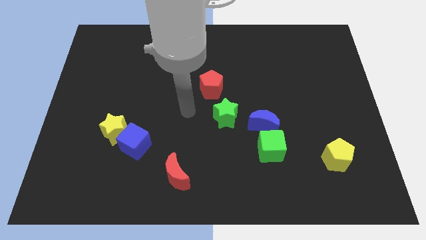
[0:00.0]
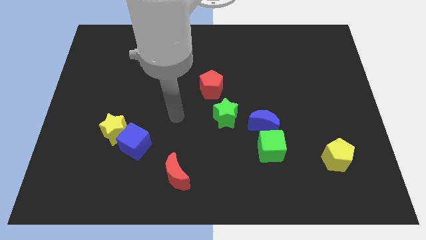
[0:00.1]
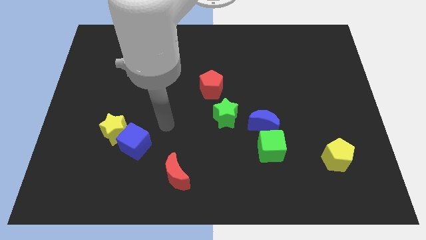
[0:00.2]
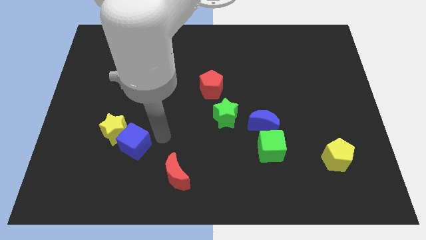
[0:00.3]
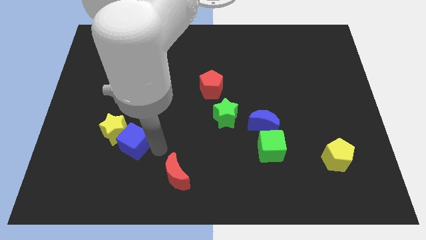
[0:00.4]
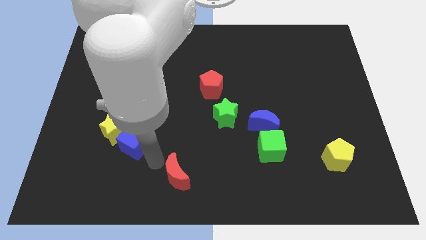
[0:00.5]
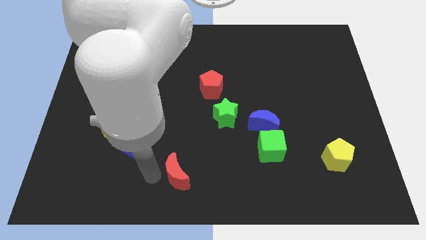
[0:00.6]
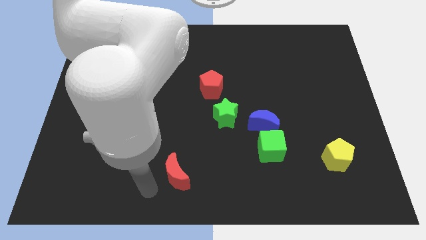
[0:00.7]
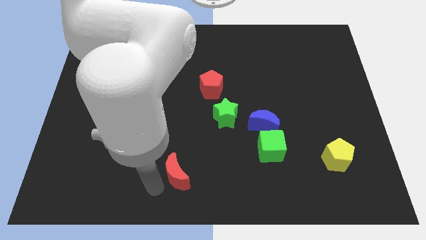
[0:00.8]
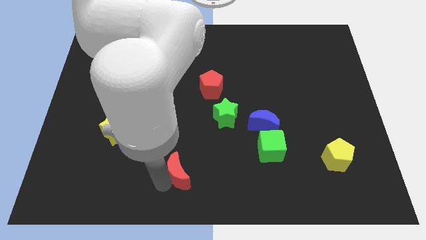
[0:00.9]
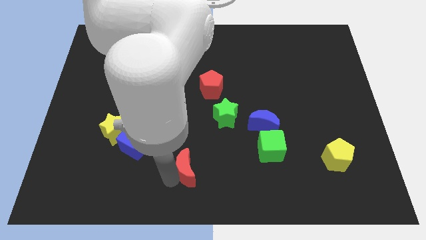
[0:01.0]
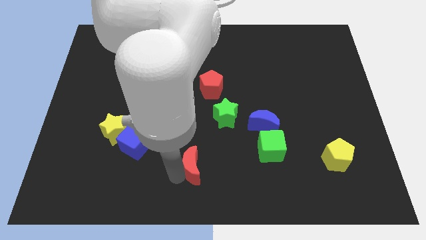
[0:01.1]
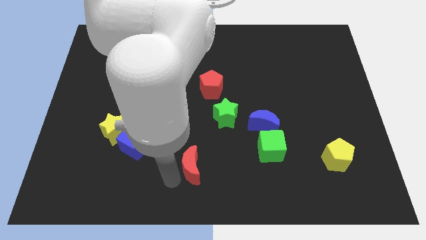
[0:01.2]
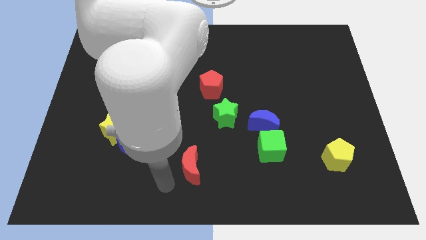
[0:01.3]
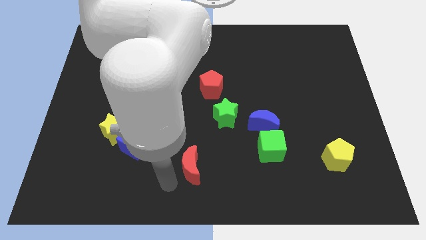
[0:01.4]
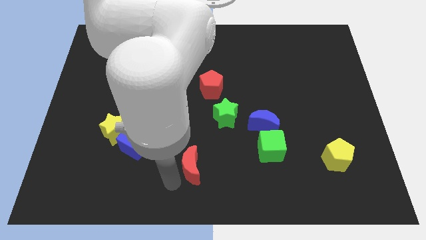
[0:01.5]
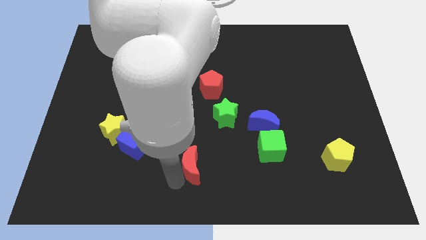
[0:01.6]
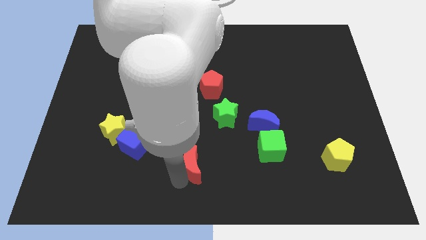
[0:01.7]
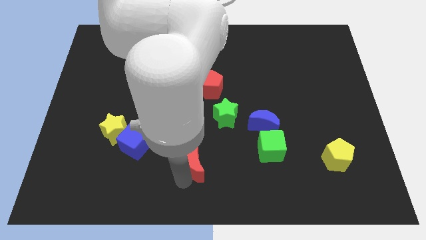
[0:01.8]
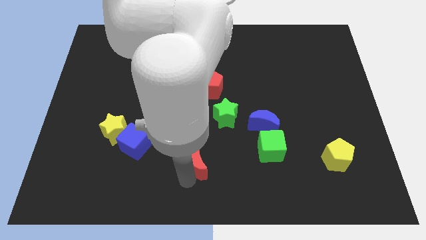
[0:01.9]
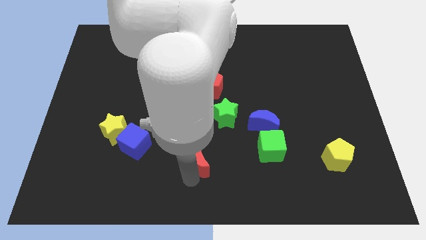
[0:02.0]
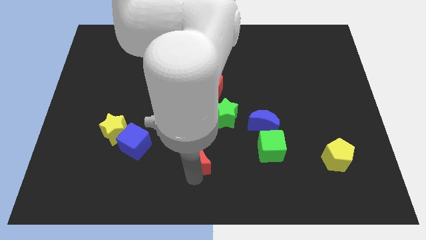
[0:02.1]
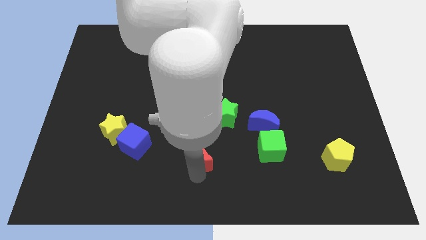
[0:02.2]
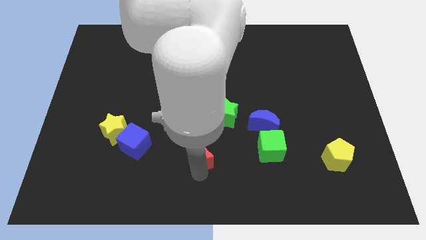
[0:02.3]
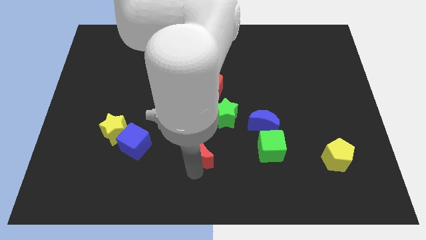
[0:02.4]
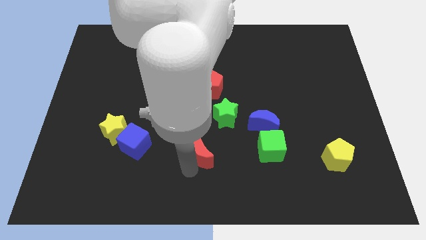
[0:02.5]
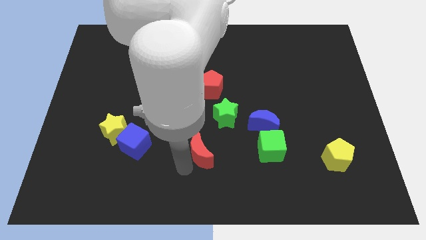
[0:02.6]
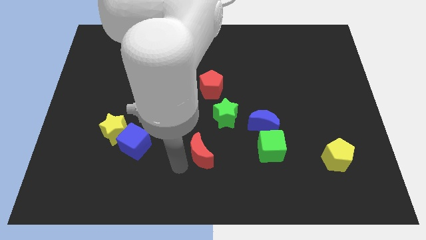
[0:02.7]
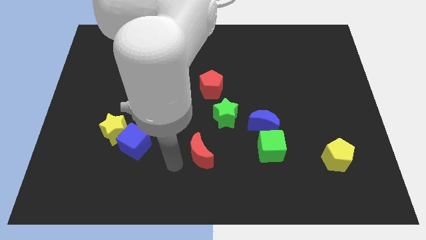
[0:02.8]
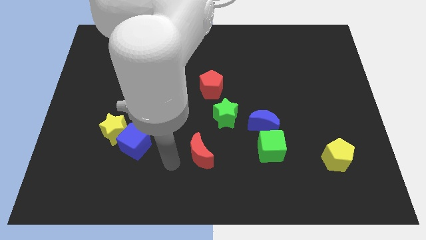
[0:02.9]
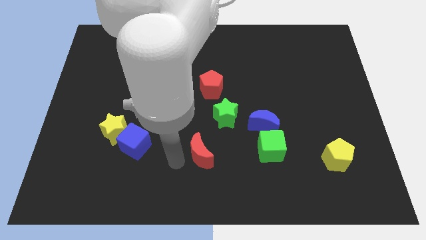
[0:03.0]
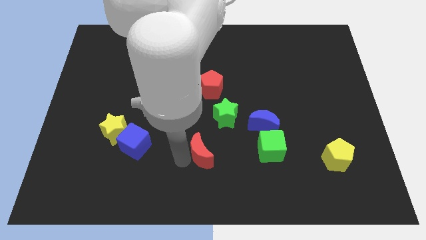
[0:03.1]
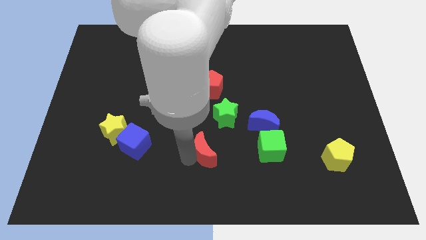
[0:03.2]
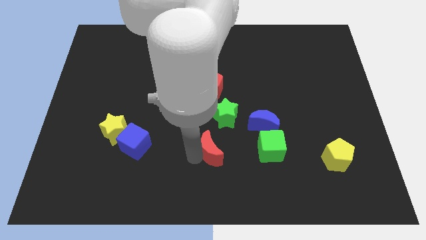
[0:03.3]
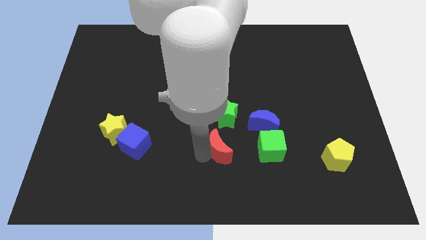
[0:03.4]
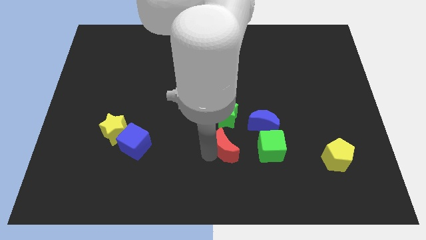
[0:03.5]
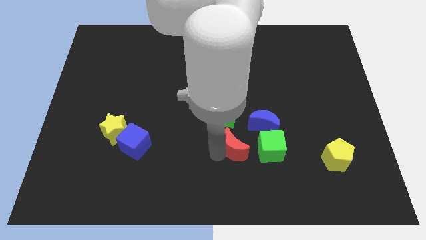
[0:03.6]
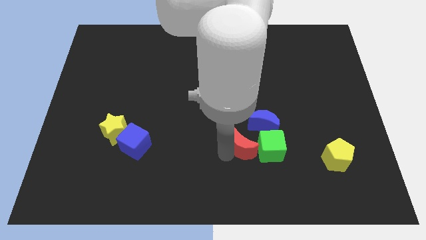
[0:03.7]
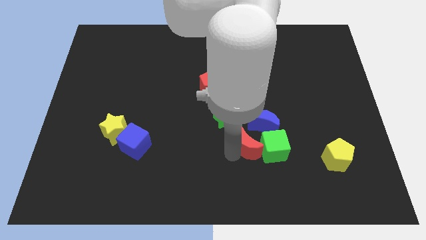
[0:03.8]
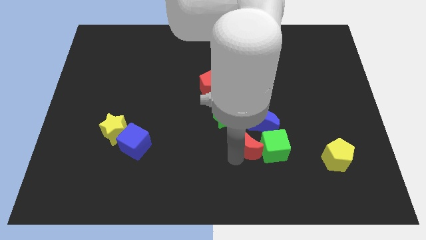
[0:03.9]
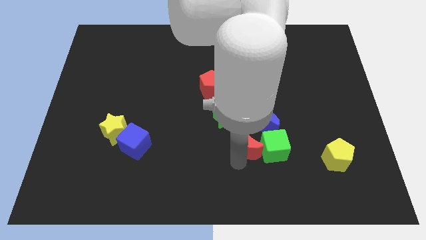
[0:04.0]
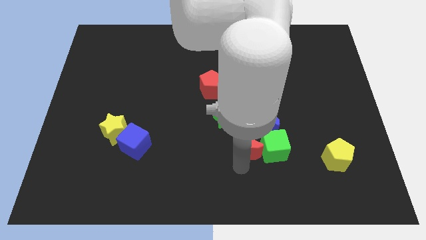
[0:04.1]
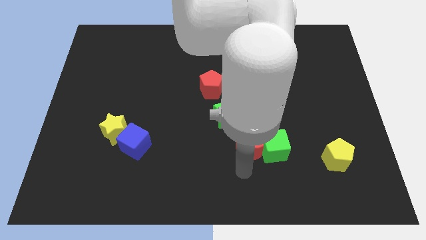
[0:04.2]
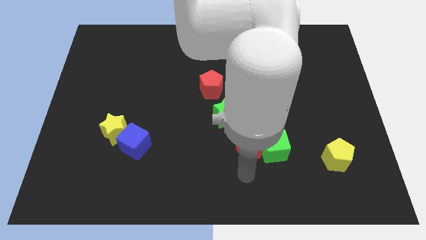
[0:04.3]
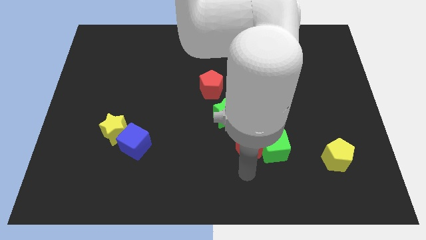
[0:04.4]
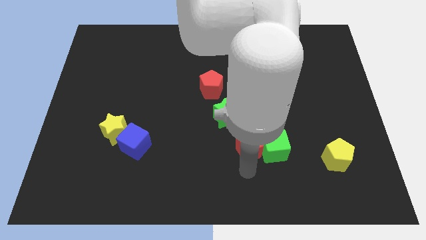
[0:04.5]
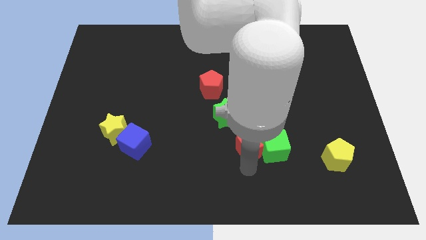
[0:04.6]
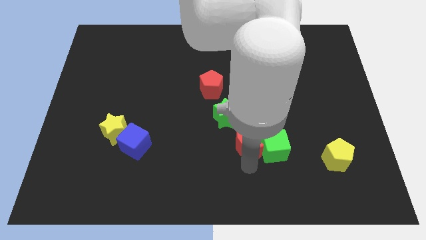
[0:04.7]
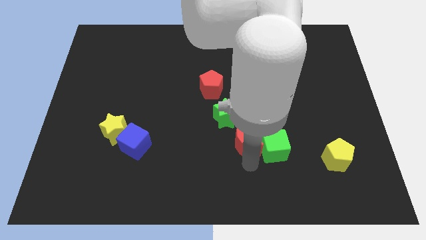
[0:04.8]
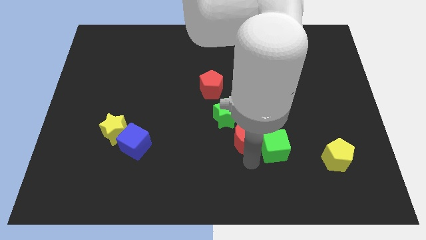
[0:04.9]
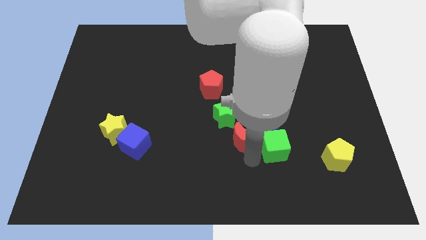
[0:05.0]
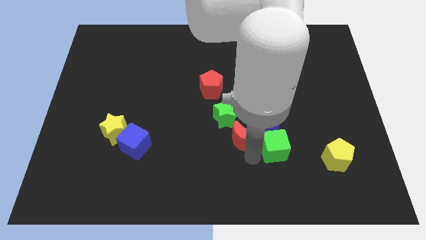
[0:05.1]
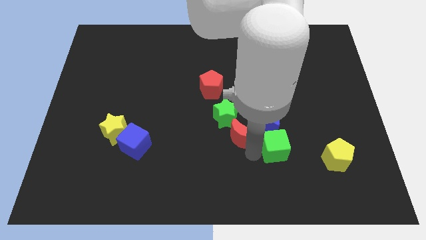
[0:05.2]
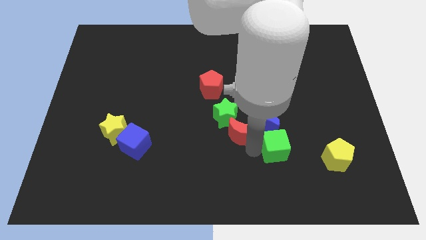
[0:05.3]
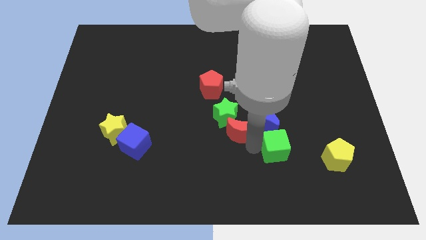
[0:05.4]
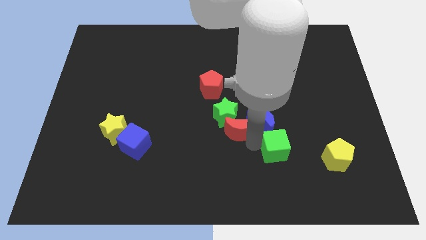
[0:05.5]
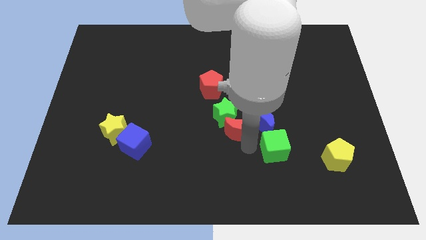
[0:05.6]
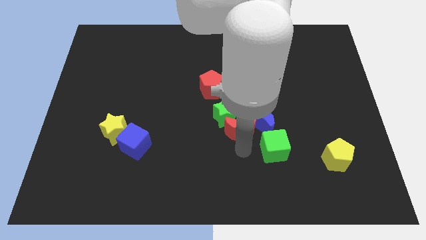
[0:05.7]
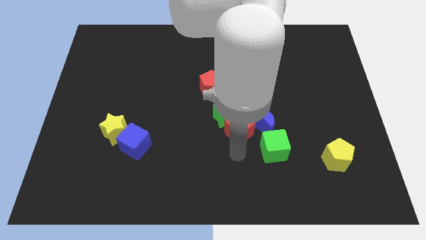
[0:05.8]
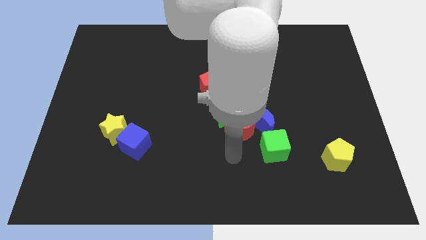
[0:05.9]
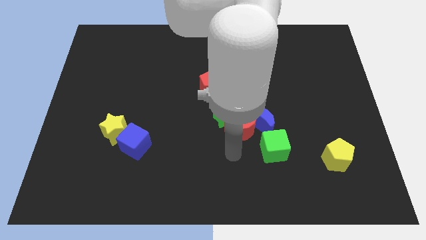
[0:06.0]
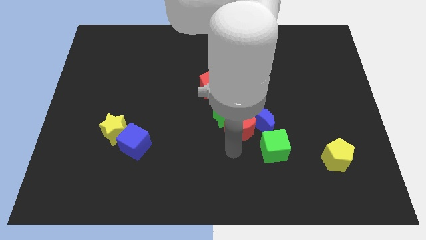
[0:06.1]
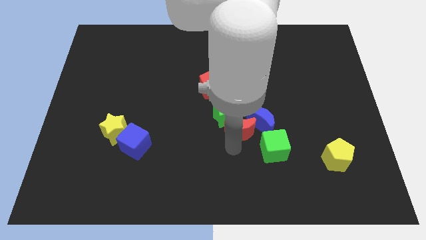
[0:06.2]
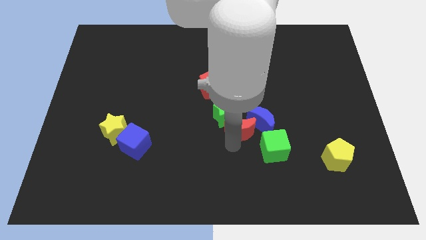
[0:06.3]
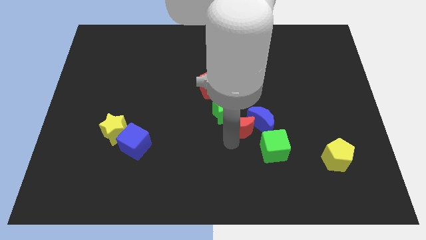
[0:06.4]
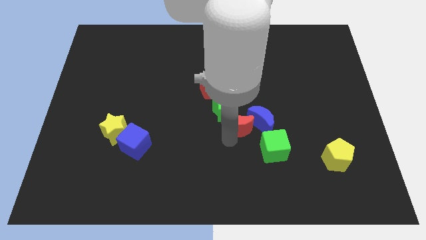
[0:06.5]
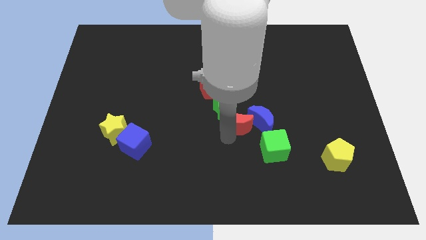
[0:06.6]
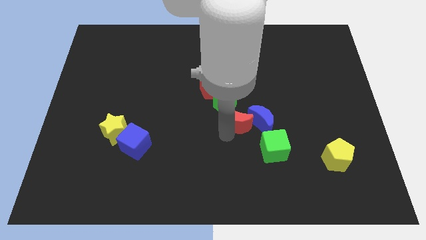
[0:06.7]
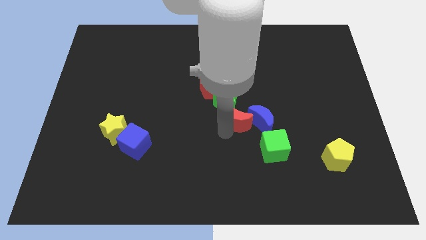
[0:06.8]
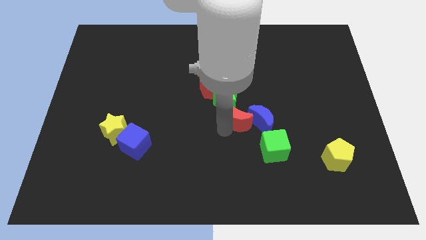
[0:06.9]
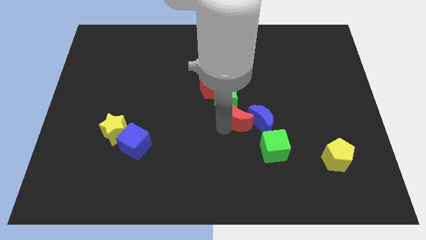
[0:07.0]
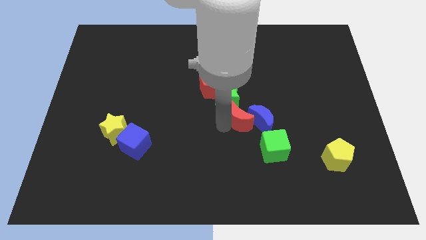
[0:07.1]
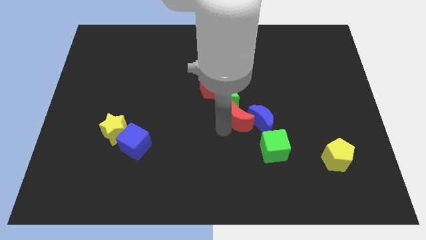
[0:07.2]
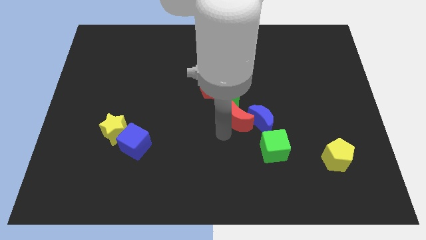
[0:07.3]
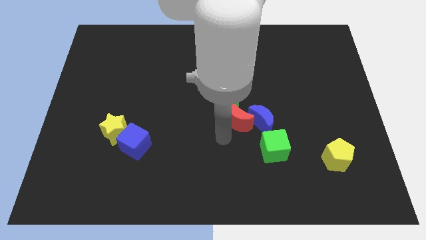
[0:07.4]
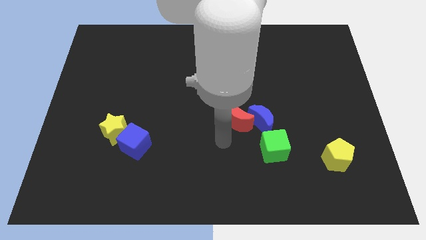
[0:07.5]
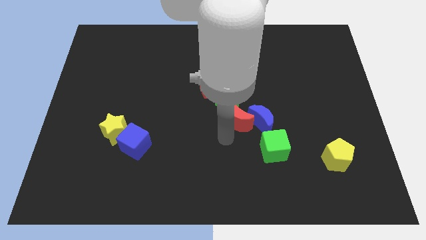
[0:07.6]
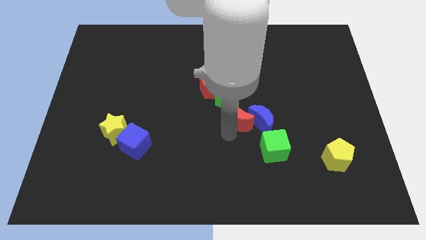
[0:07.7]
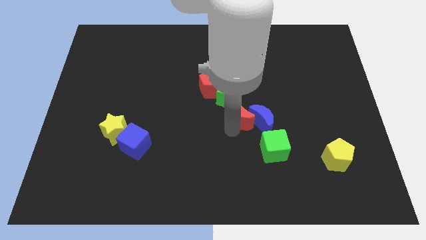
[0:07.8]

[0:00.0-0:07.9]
slide the red moon up and right

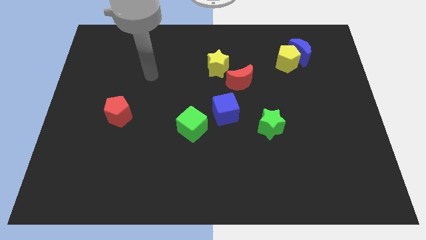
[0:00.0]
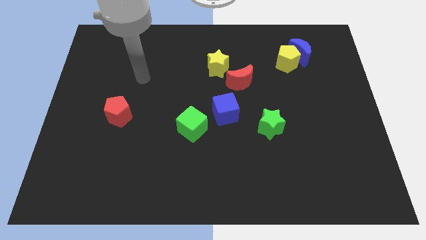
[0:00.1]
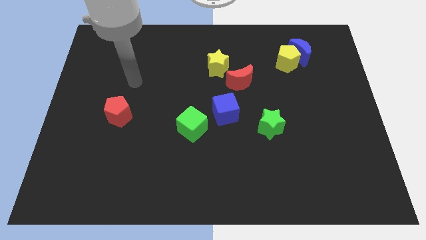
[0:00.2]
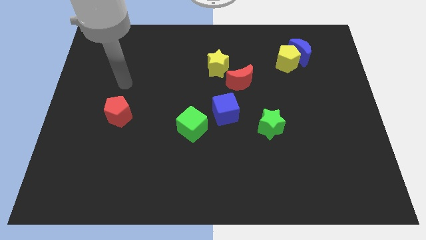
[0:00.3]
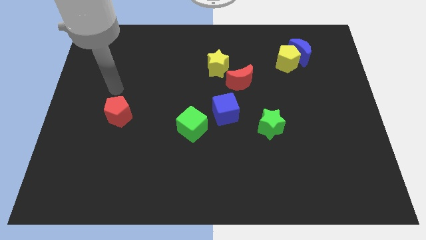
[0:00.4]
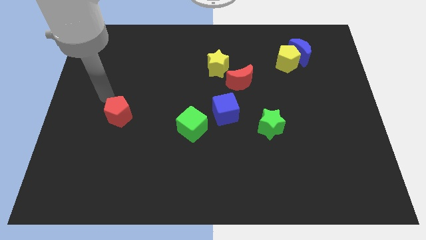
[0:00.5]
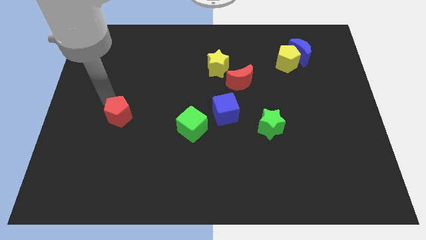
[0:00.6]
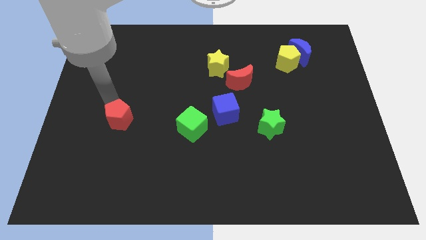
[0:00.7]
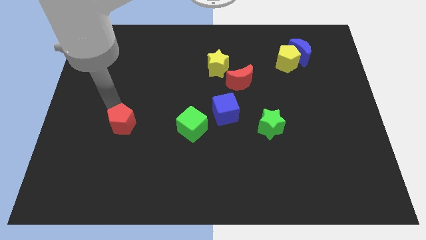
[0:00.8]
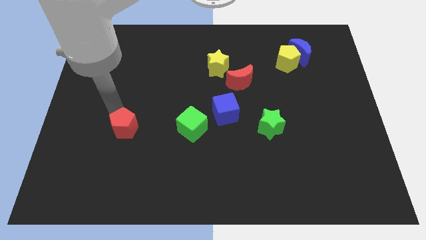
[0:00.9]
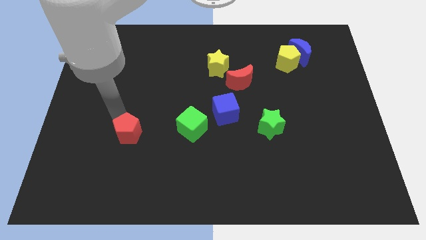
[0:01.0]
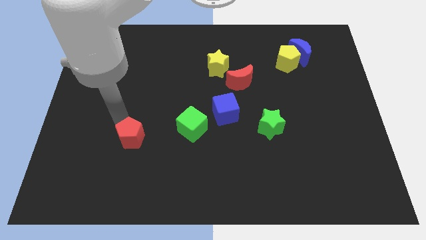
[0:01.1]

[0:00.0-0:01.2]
move the red pentagon somewhat down and to the right diagonally
